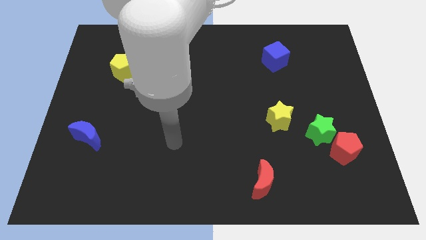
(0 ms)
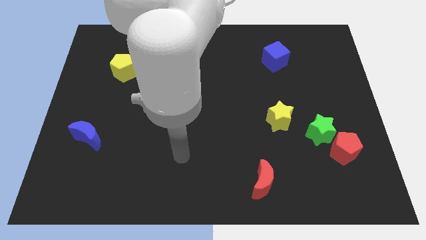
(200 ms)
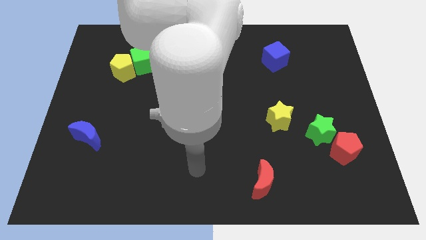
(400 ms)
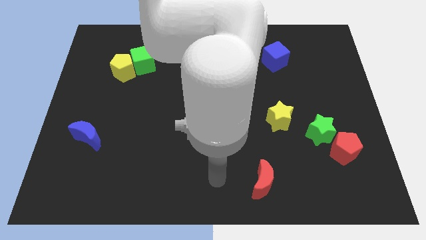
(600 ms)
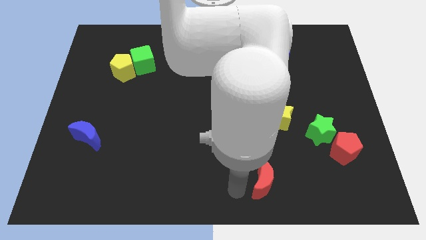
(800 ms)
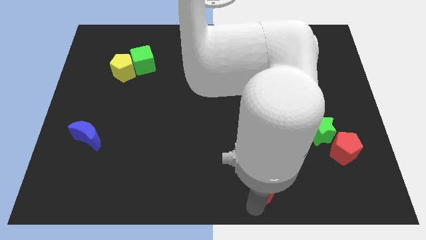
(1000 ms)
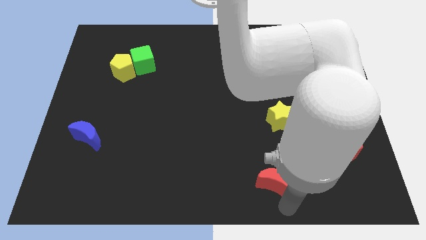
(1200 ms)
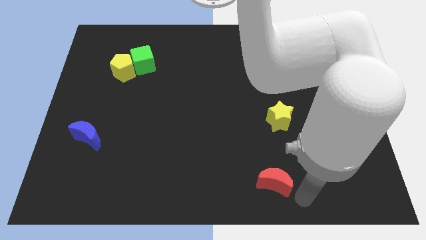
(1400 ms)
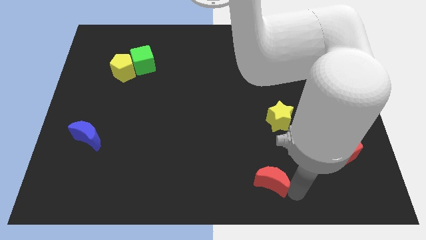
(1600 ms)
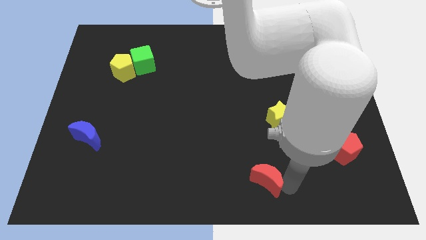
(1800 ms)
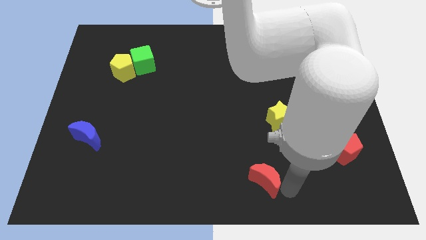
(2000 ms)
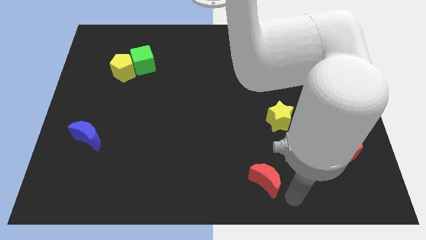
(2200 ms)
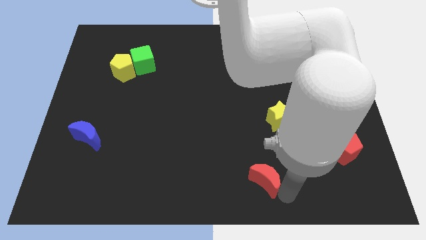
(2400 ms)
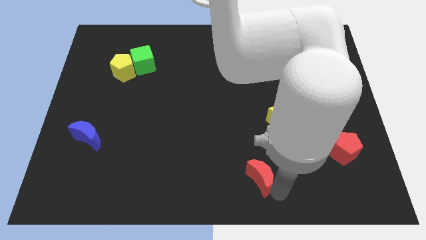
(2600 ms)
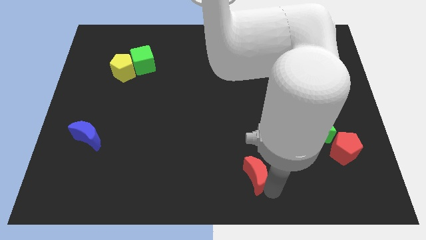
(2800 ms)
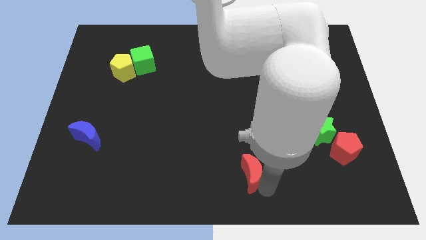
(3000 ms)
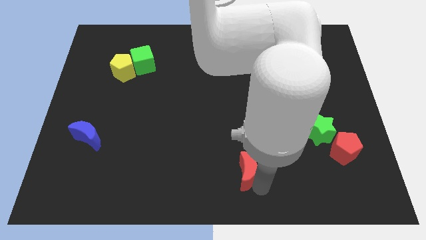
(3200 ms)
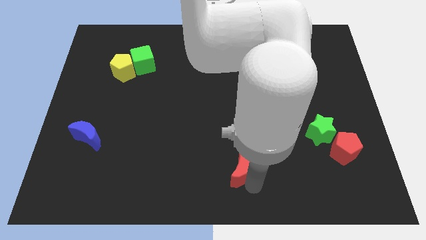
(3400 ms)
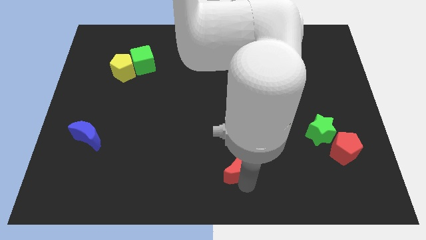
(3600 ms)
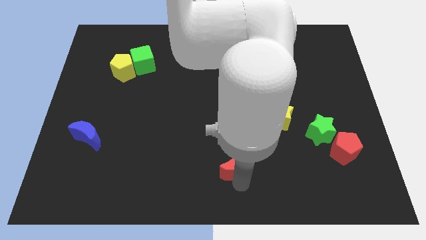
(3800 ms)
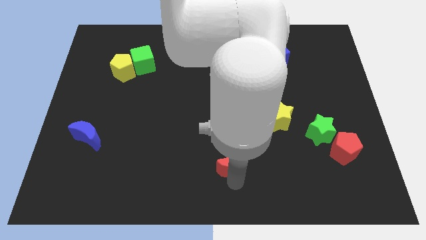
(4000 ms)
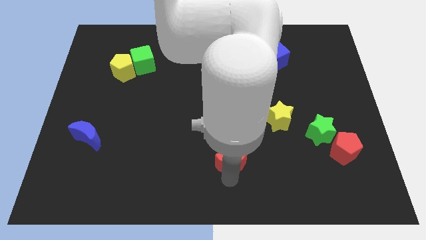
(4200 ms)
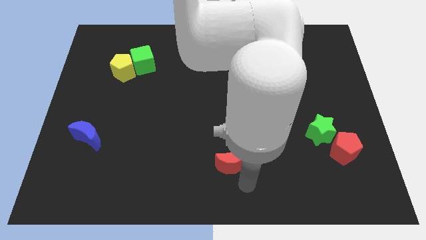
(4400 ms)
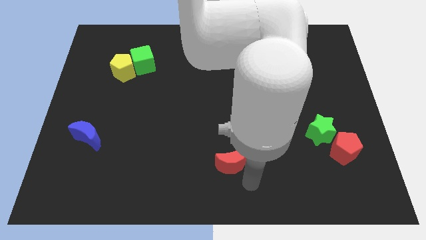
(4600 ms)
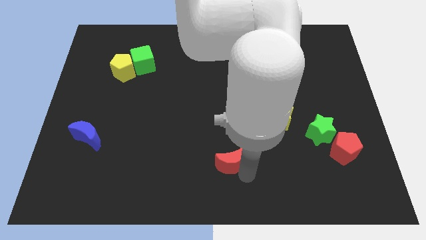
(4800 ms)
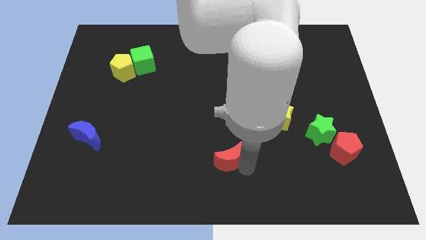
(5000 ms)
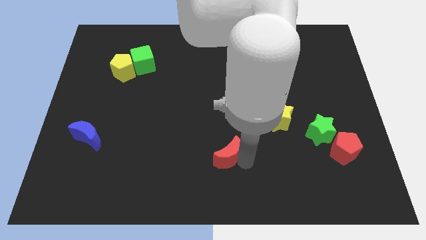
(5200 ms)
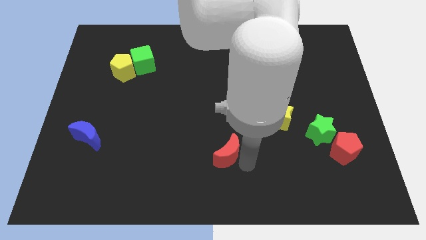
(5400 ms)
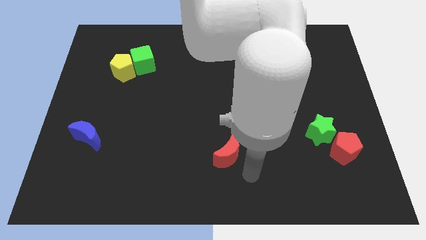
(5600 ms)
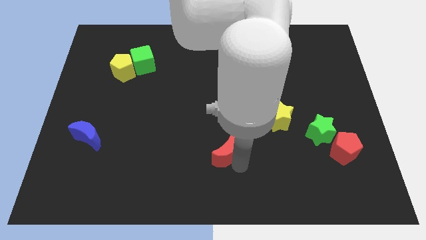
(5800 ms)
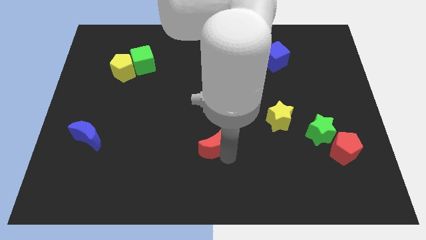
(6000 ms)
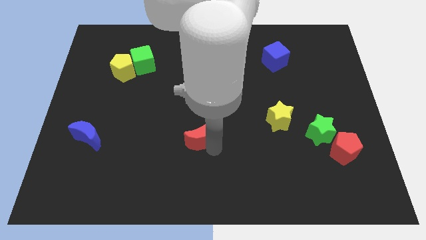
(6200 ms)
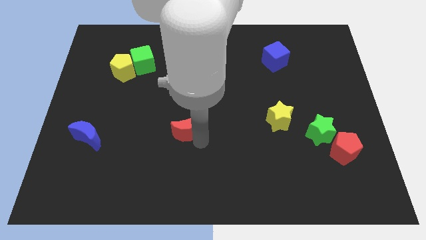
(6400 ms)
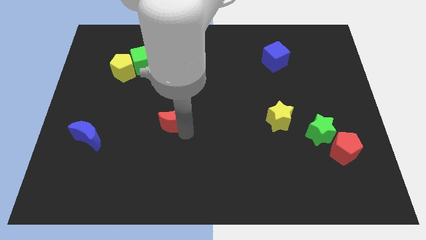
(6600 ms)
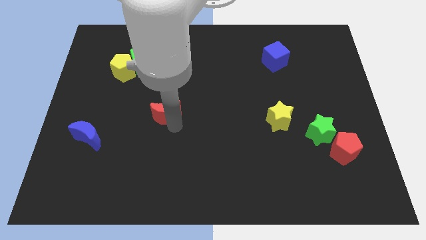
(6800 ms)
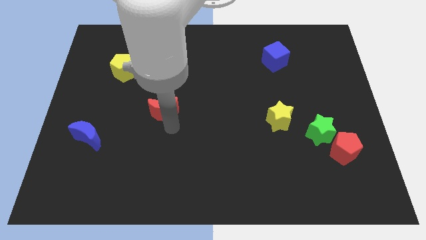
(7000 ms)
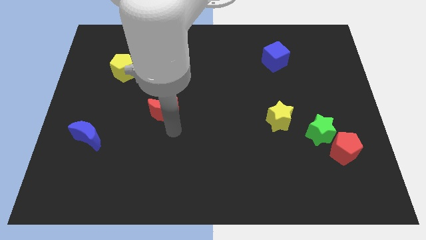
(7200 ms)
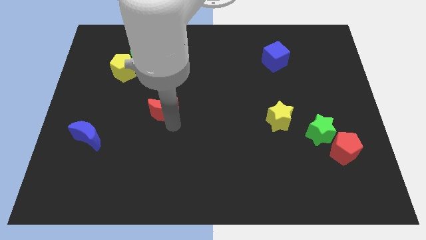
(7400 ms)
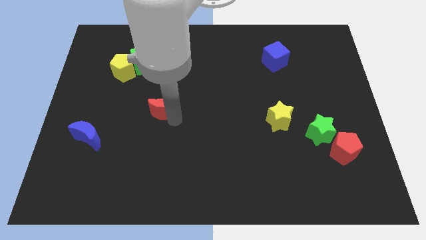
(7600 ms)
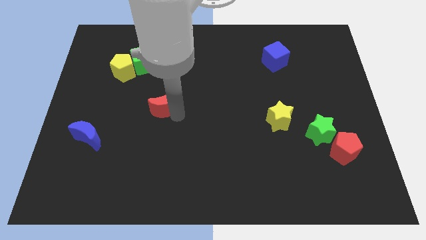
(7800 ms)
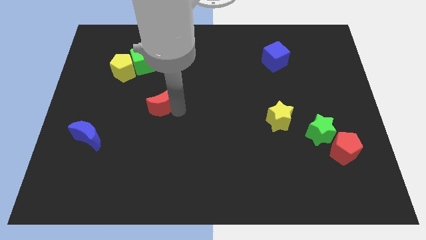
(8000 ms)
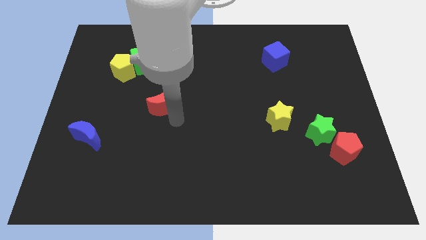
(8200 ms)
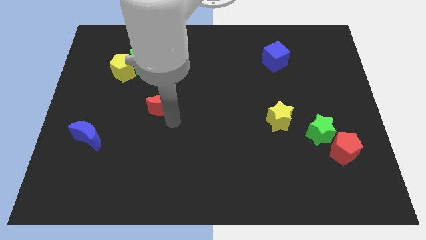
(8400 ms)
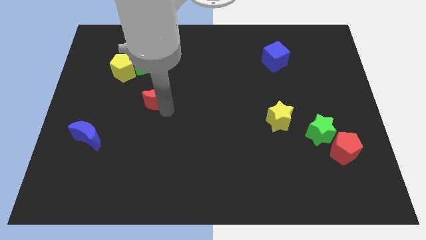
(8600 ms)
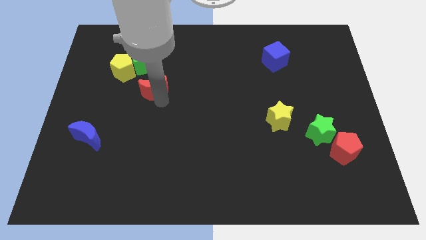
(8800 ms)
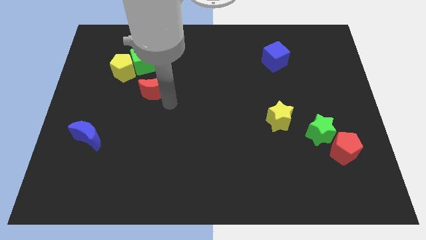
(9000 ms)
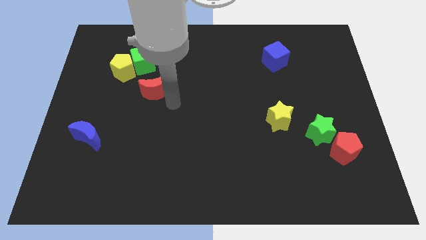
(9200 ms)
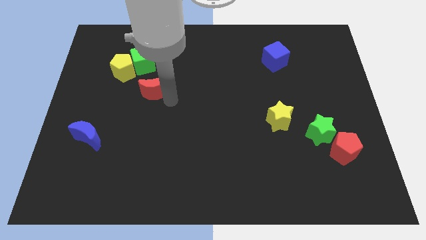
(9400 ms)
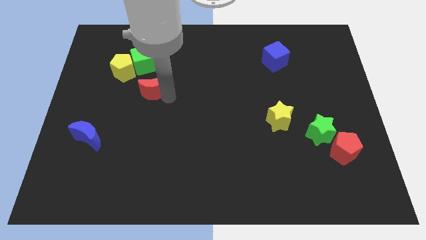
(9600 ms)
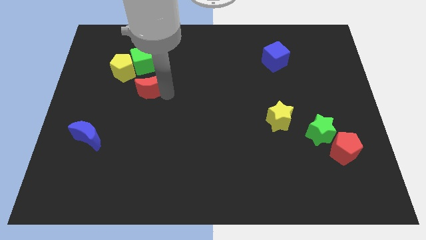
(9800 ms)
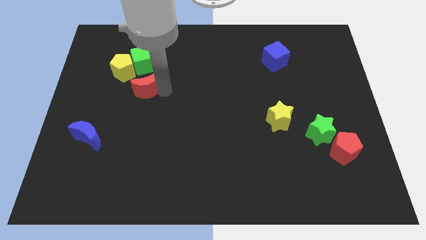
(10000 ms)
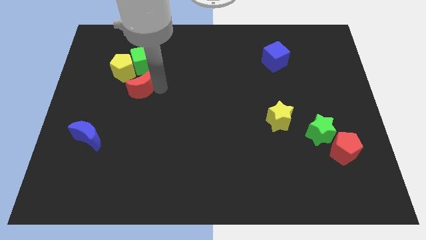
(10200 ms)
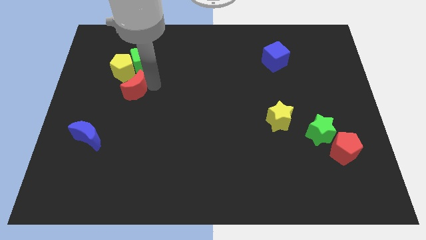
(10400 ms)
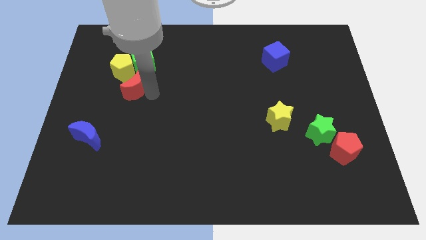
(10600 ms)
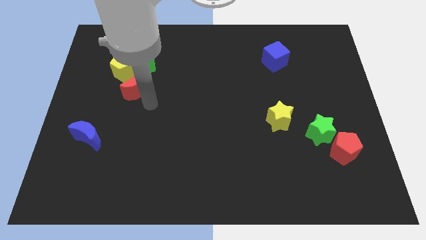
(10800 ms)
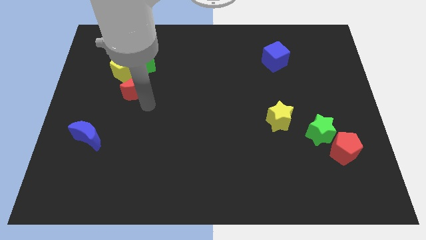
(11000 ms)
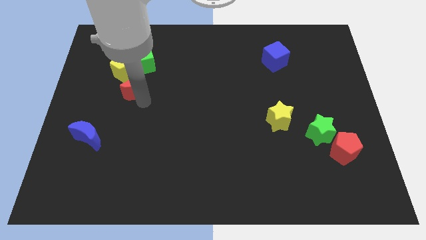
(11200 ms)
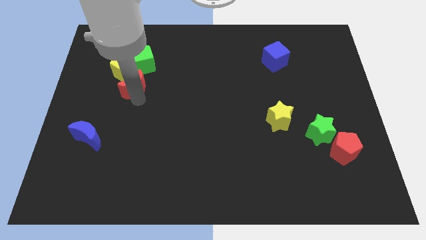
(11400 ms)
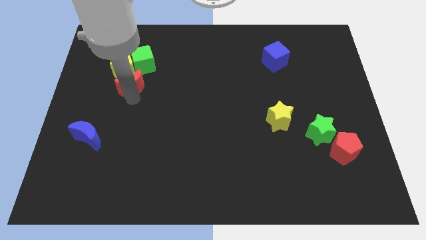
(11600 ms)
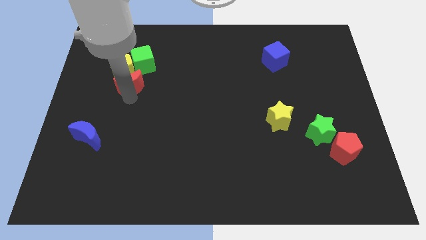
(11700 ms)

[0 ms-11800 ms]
push the red moon towards the yellow pentagon

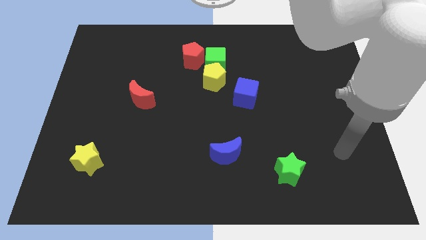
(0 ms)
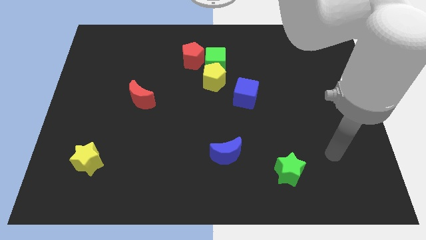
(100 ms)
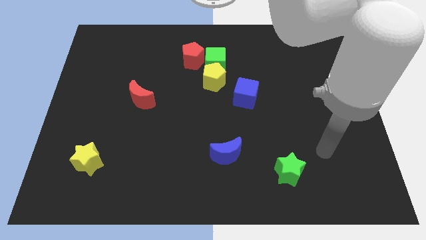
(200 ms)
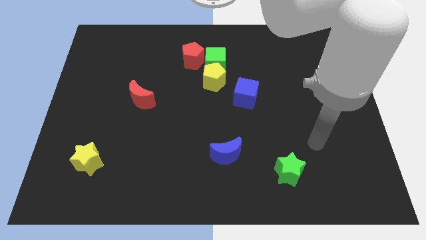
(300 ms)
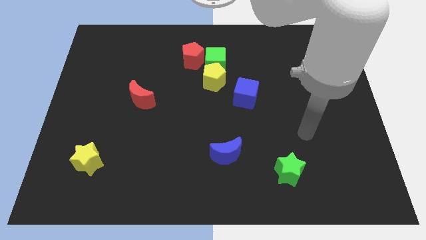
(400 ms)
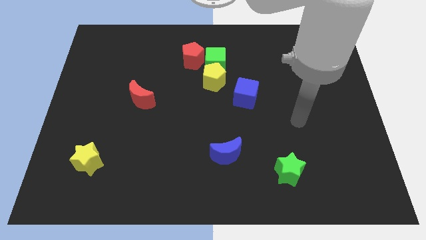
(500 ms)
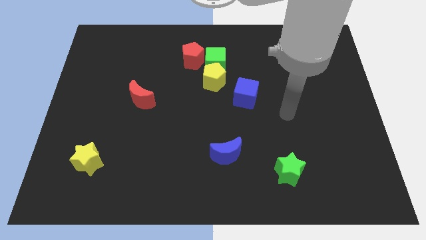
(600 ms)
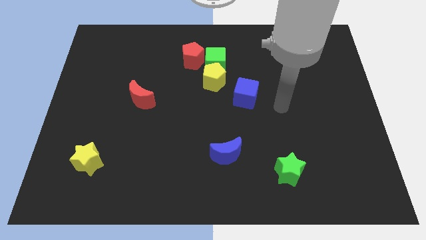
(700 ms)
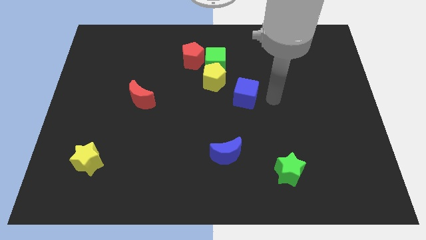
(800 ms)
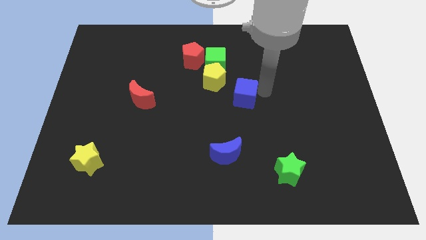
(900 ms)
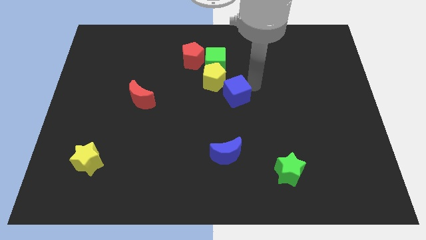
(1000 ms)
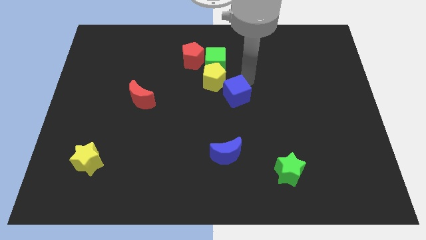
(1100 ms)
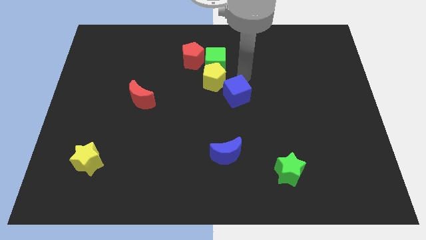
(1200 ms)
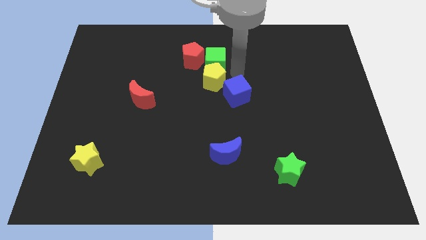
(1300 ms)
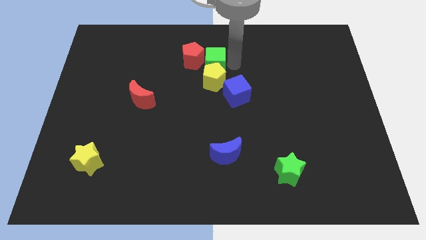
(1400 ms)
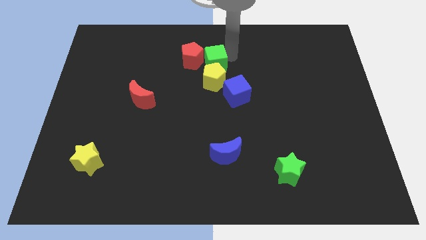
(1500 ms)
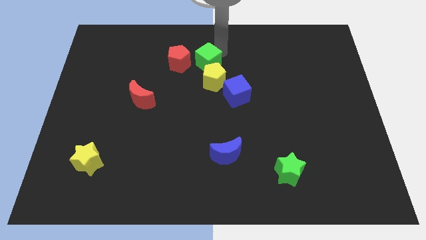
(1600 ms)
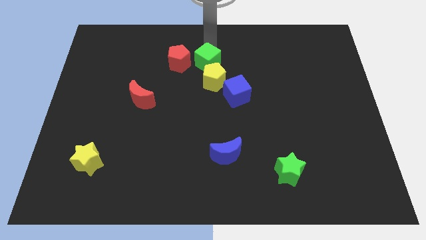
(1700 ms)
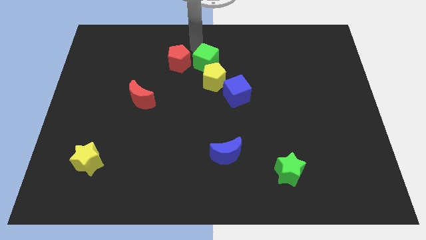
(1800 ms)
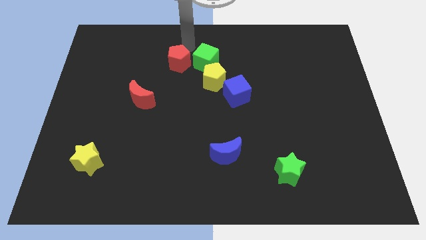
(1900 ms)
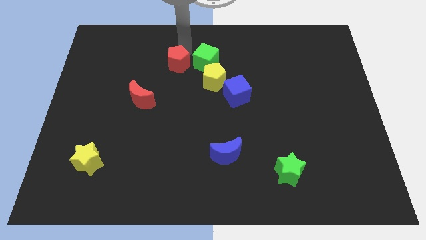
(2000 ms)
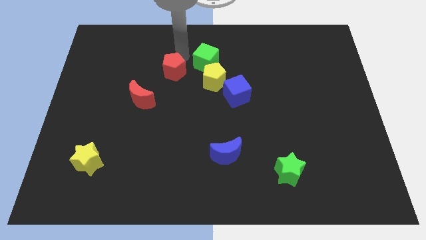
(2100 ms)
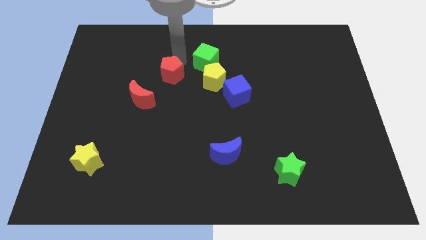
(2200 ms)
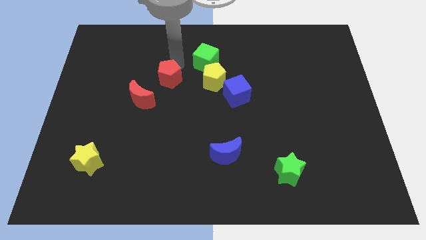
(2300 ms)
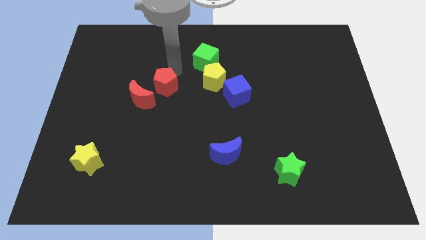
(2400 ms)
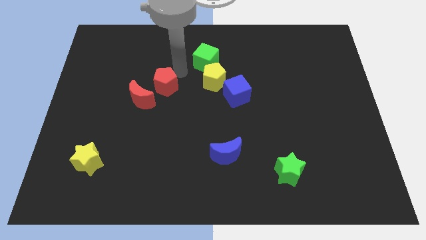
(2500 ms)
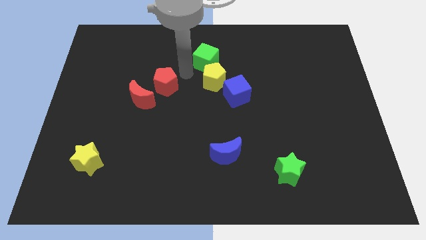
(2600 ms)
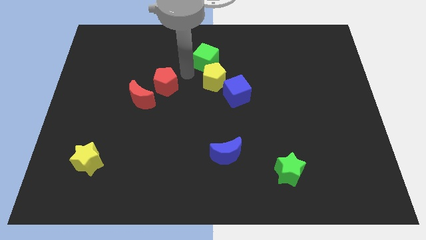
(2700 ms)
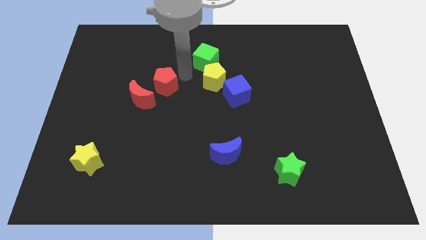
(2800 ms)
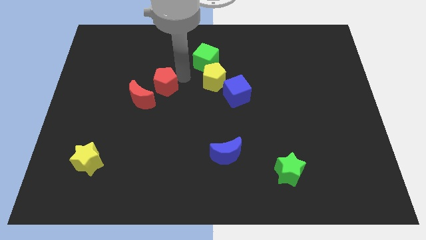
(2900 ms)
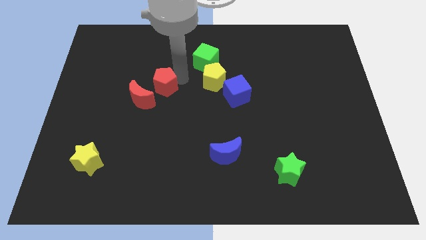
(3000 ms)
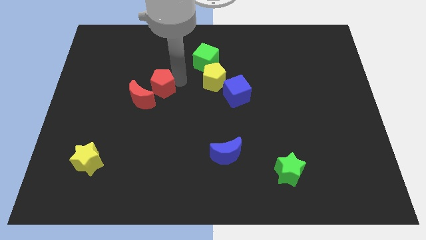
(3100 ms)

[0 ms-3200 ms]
slide the red pentagon close to the red moon
